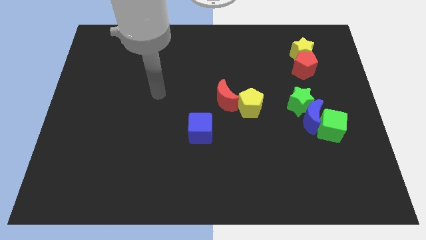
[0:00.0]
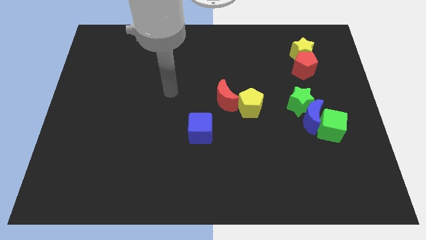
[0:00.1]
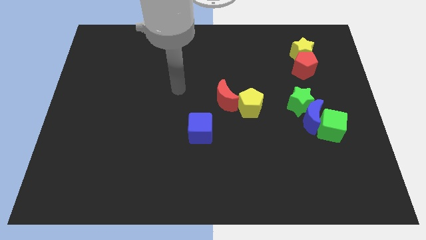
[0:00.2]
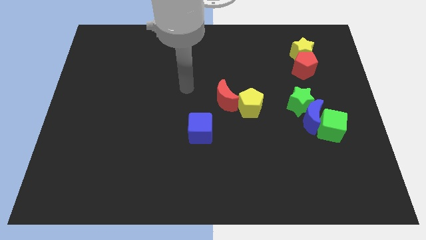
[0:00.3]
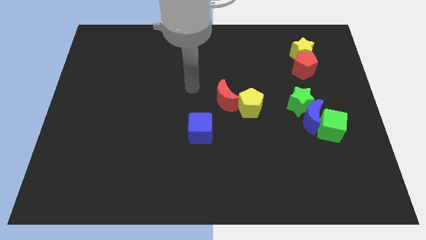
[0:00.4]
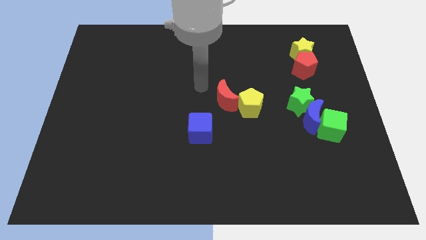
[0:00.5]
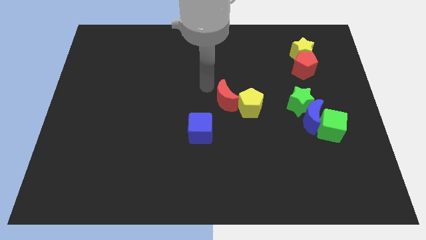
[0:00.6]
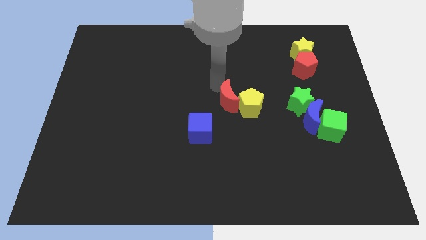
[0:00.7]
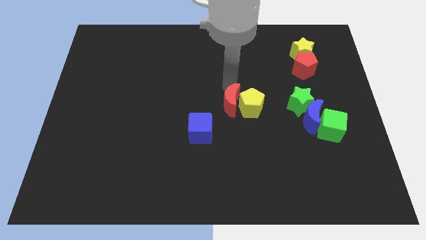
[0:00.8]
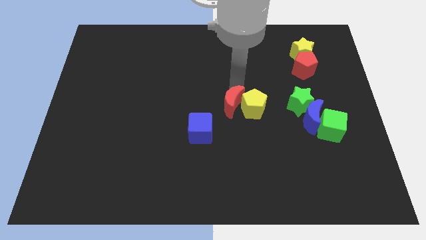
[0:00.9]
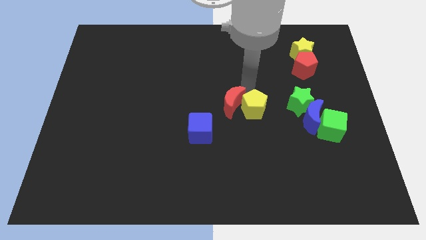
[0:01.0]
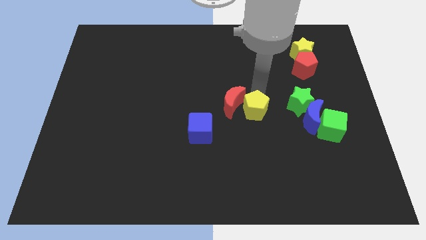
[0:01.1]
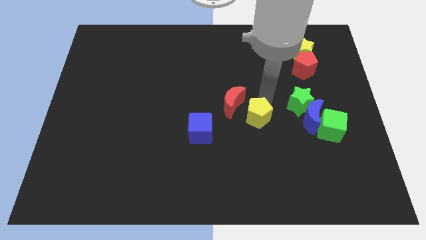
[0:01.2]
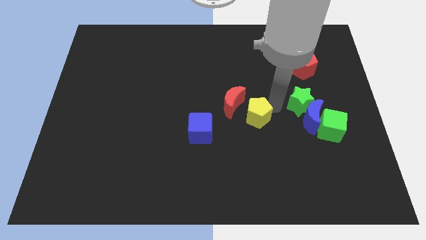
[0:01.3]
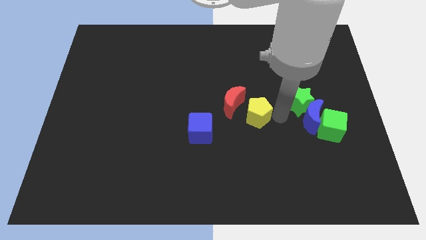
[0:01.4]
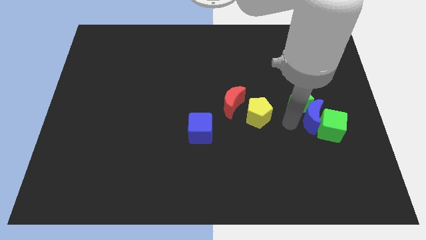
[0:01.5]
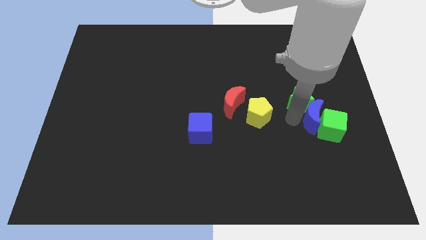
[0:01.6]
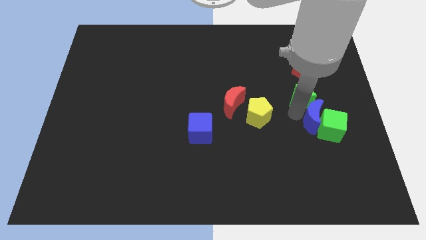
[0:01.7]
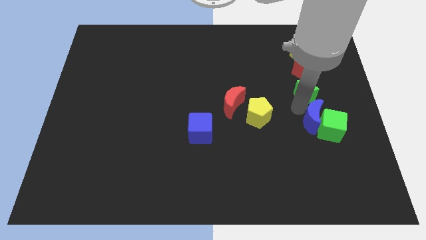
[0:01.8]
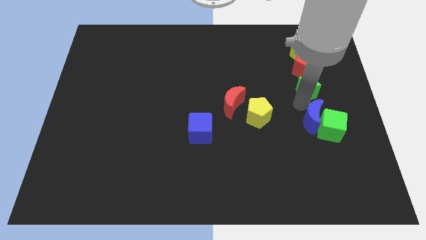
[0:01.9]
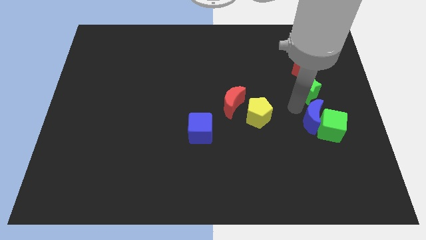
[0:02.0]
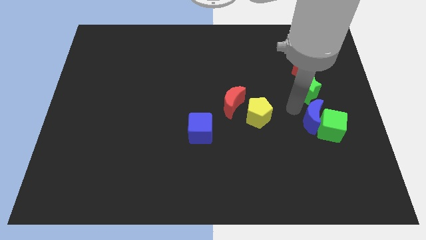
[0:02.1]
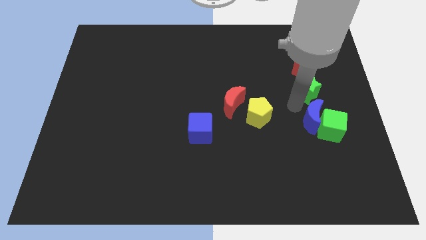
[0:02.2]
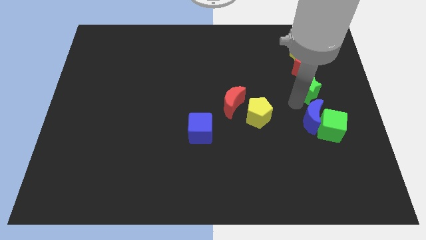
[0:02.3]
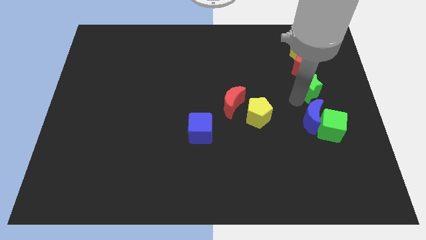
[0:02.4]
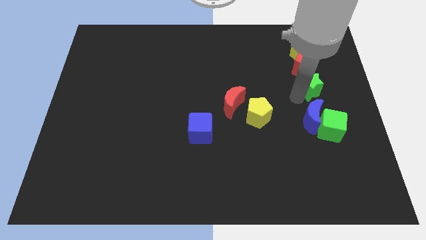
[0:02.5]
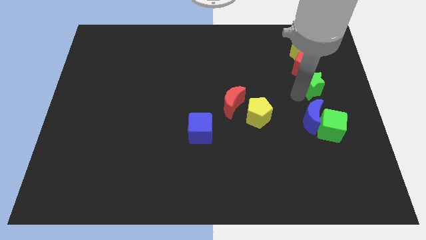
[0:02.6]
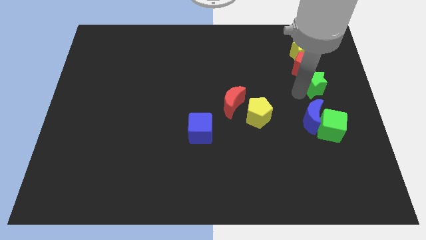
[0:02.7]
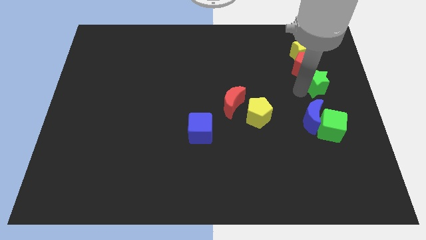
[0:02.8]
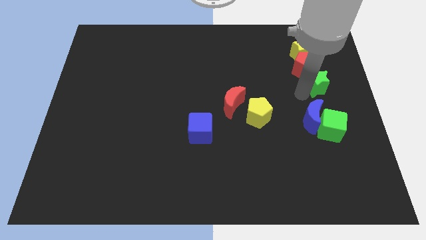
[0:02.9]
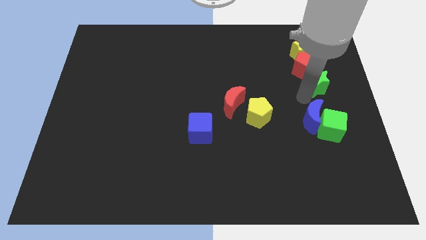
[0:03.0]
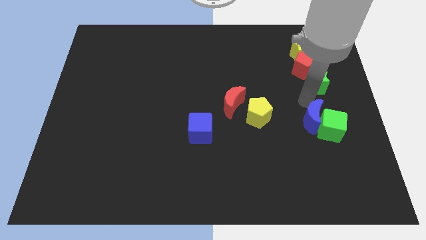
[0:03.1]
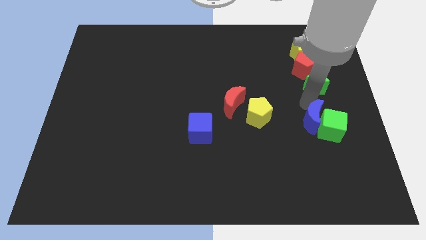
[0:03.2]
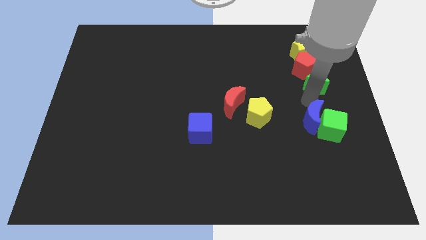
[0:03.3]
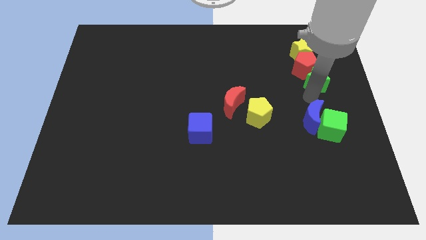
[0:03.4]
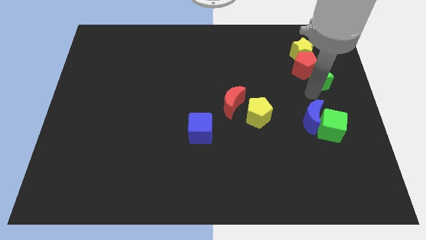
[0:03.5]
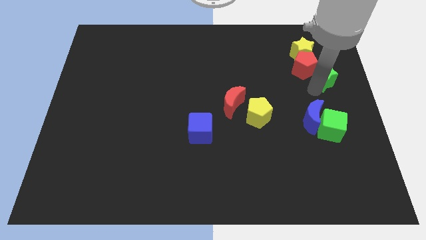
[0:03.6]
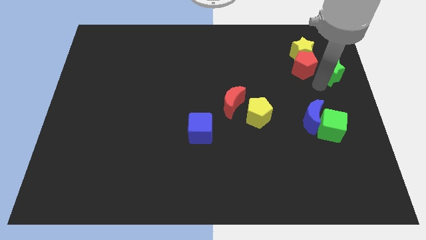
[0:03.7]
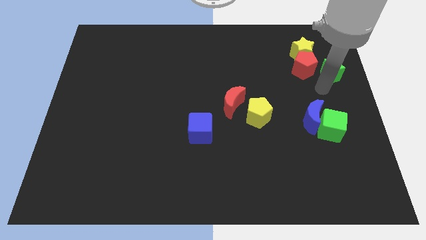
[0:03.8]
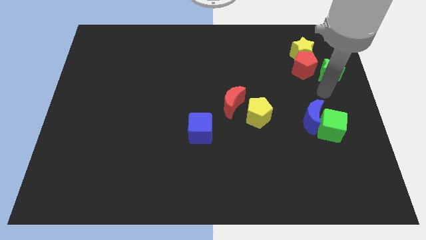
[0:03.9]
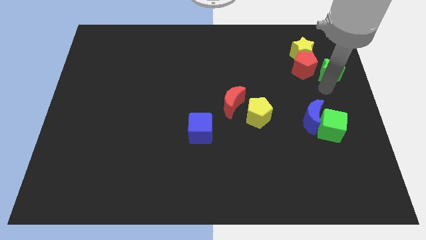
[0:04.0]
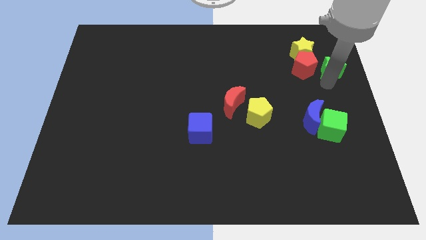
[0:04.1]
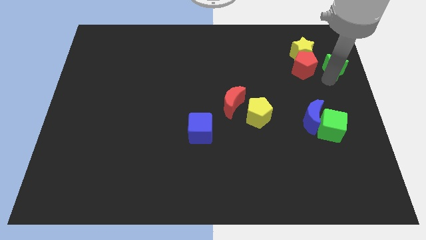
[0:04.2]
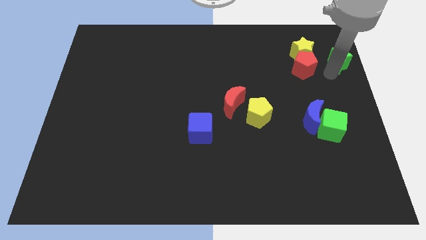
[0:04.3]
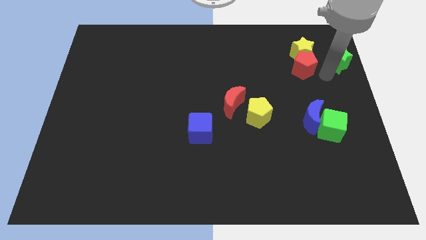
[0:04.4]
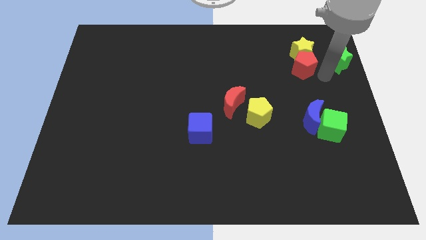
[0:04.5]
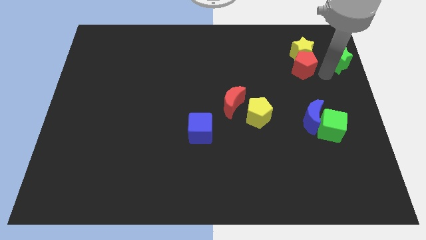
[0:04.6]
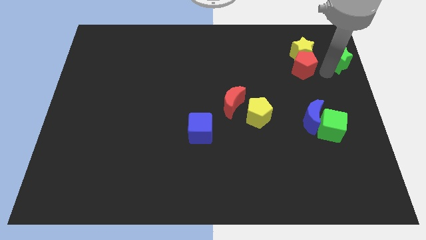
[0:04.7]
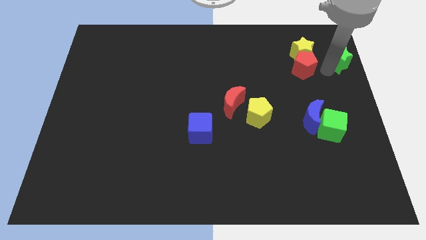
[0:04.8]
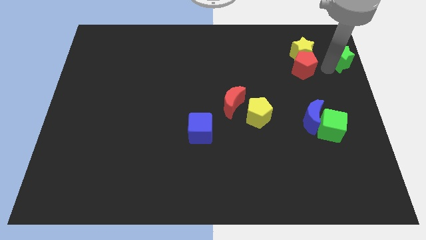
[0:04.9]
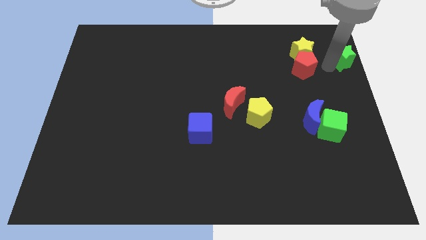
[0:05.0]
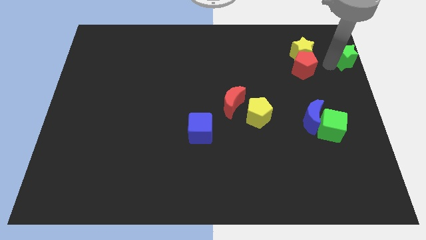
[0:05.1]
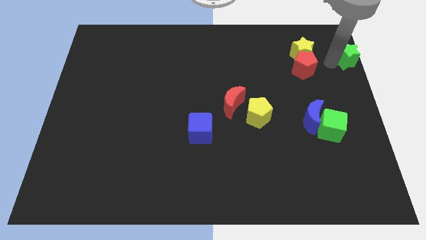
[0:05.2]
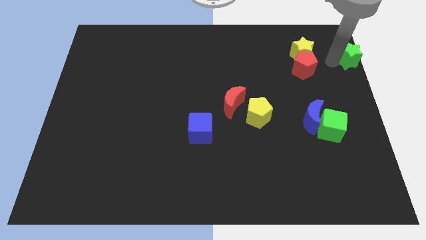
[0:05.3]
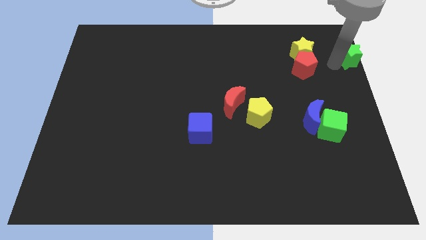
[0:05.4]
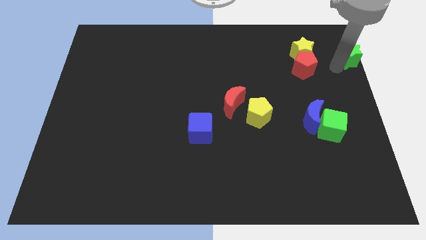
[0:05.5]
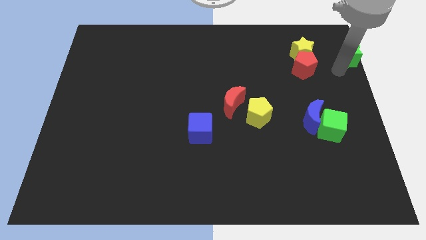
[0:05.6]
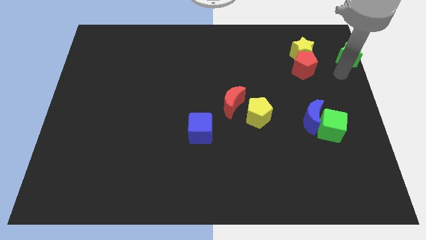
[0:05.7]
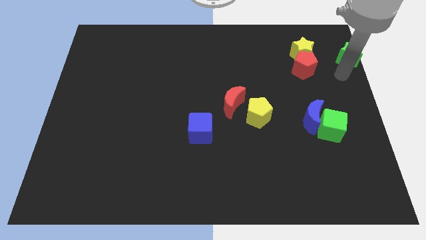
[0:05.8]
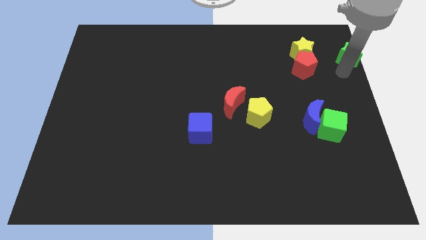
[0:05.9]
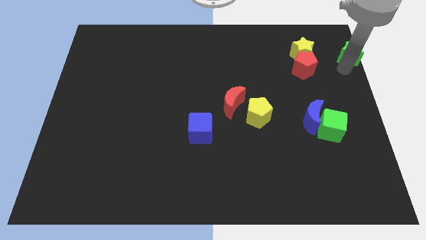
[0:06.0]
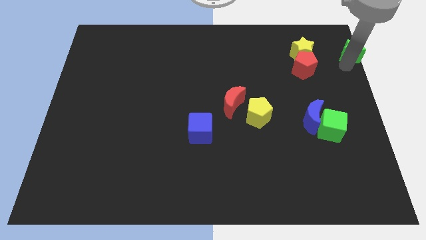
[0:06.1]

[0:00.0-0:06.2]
move the green star to the top right
